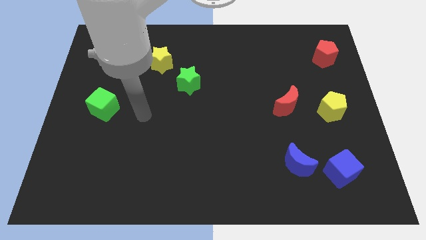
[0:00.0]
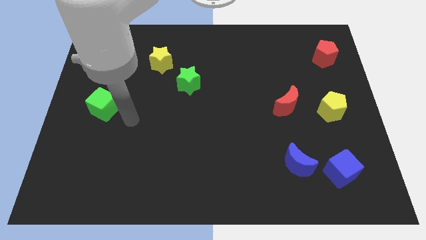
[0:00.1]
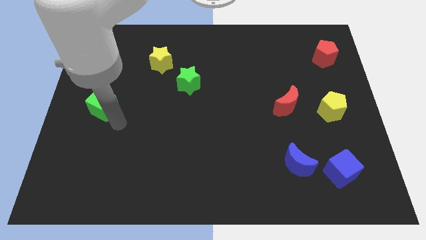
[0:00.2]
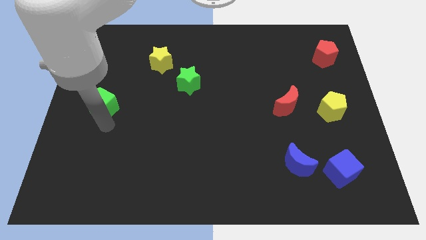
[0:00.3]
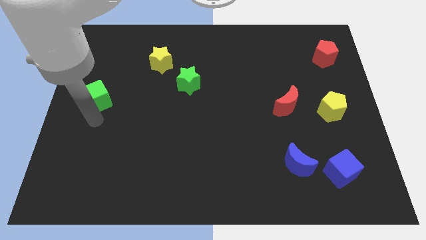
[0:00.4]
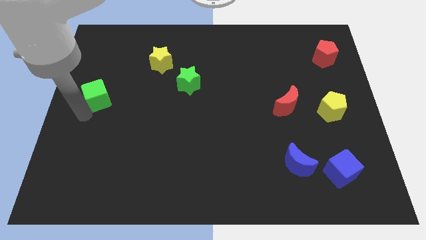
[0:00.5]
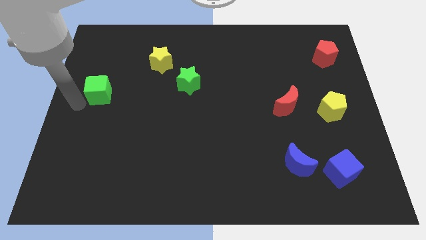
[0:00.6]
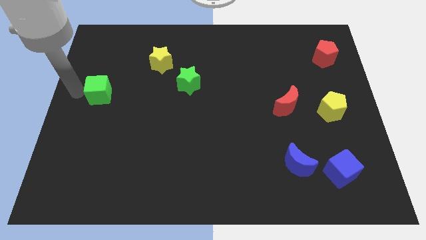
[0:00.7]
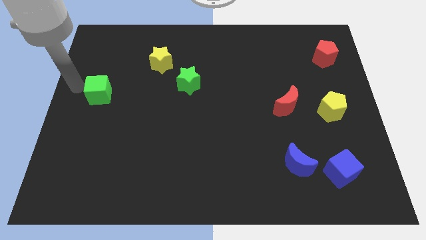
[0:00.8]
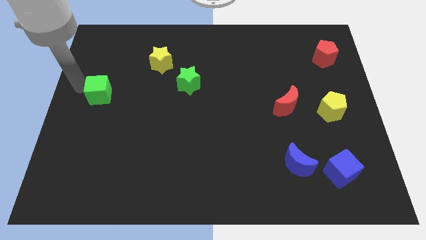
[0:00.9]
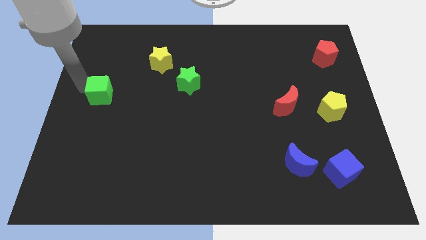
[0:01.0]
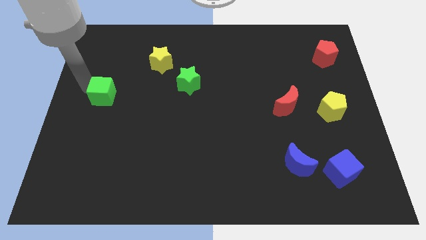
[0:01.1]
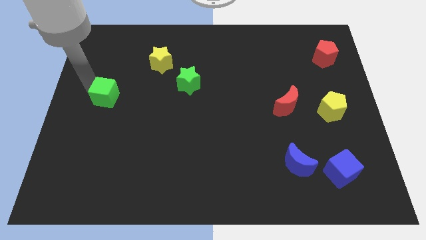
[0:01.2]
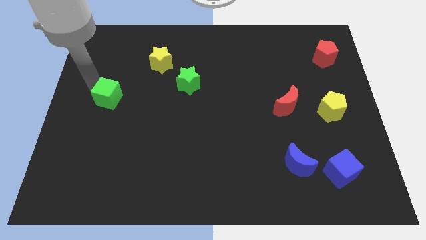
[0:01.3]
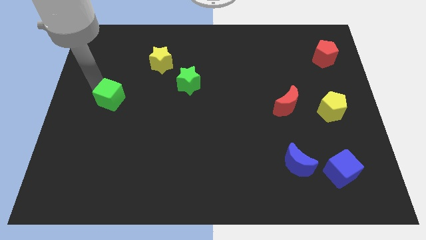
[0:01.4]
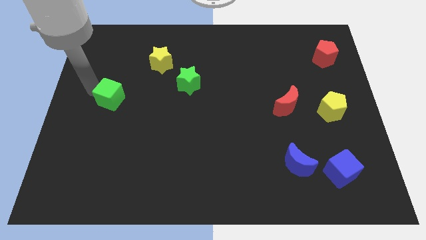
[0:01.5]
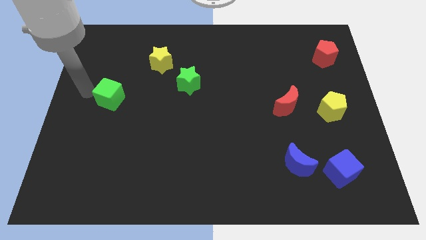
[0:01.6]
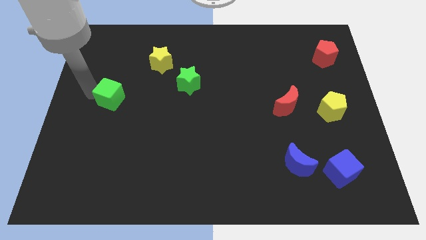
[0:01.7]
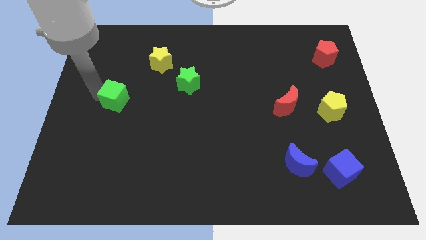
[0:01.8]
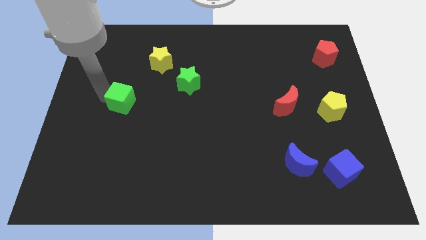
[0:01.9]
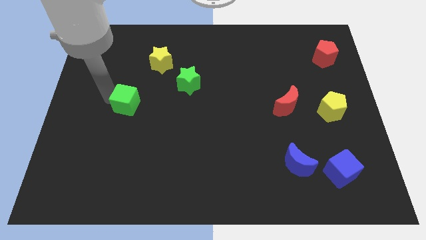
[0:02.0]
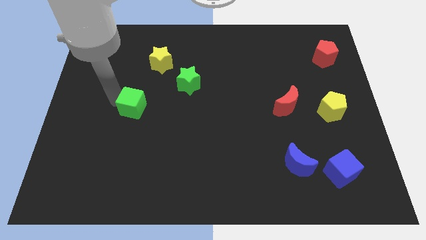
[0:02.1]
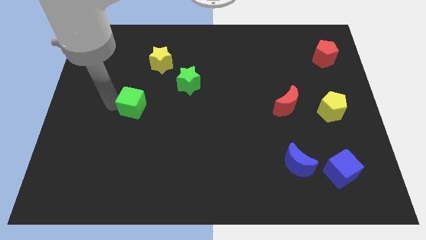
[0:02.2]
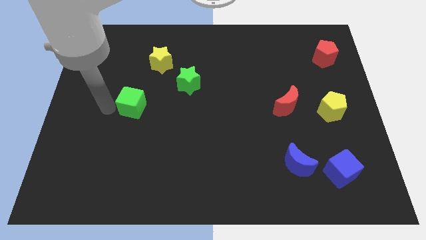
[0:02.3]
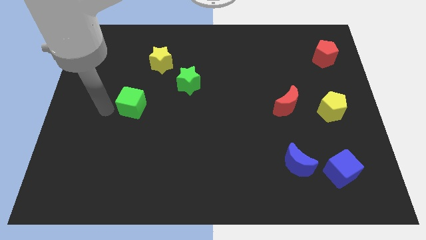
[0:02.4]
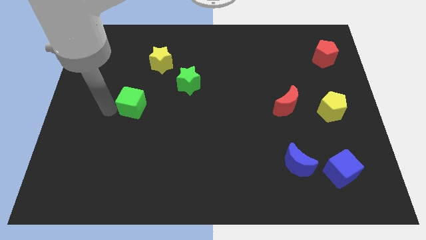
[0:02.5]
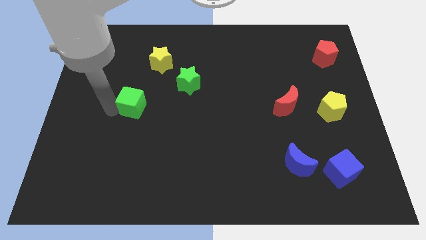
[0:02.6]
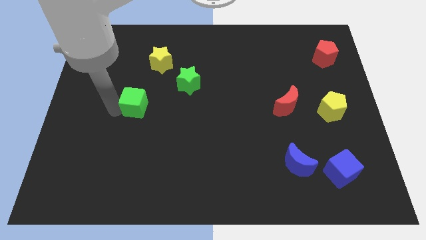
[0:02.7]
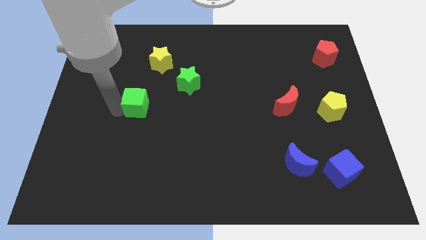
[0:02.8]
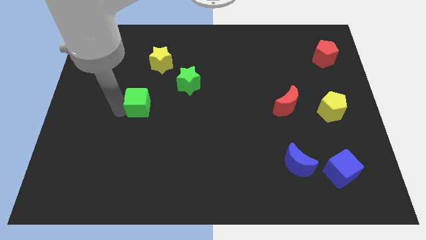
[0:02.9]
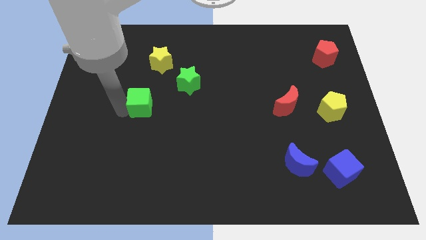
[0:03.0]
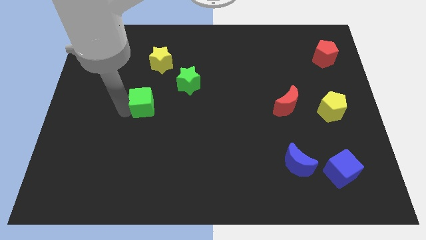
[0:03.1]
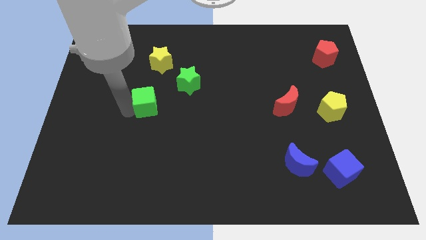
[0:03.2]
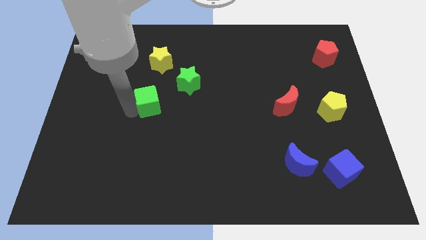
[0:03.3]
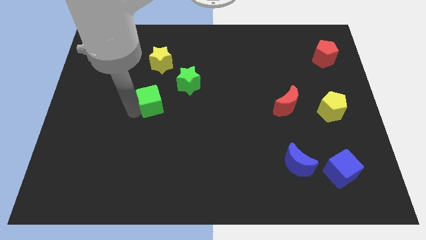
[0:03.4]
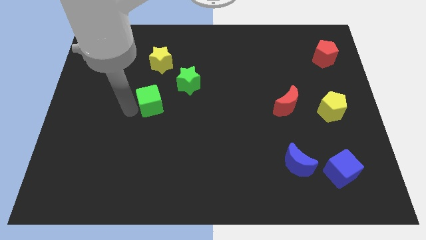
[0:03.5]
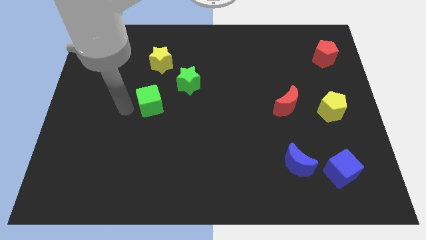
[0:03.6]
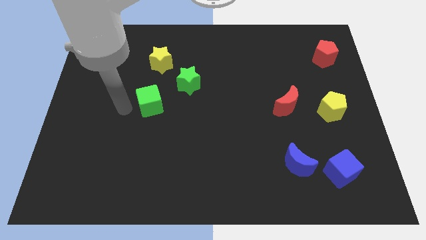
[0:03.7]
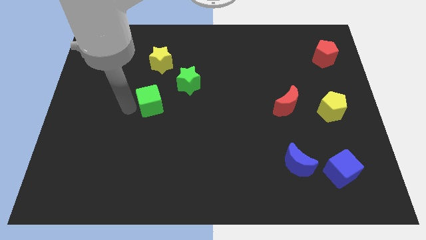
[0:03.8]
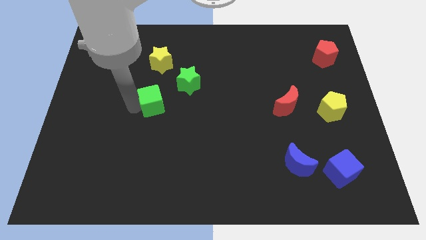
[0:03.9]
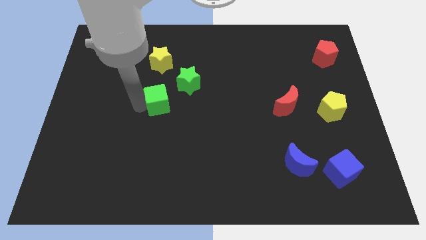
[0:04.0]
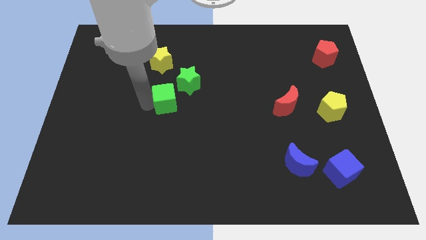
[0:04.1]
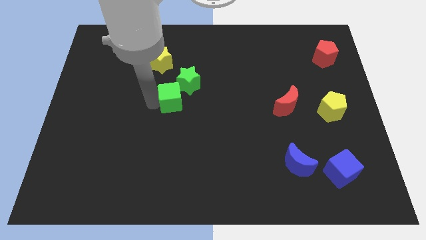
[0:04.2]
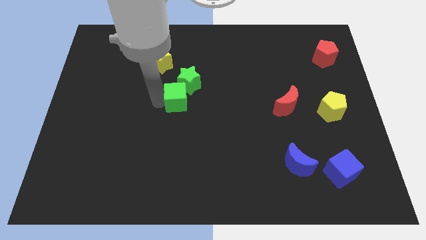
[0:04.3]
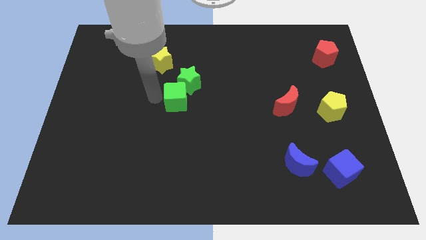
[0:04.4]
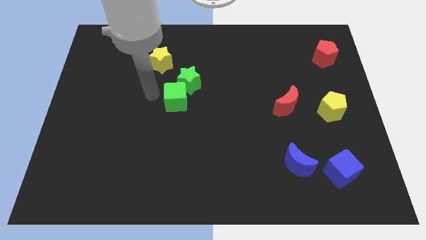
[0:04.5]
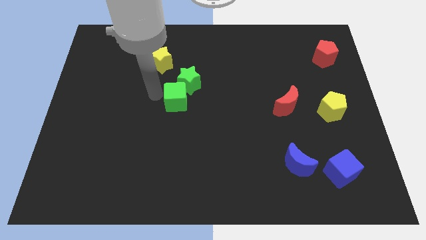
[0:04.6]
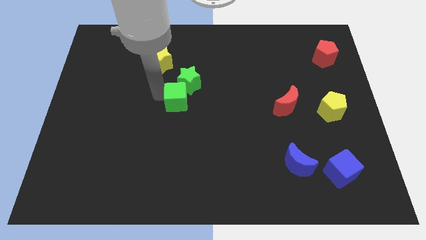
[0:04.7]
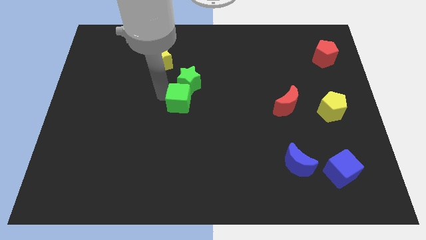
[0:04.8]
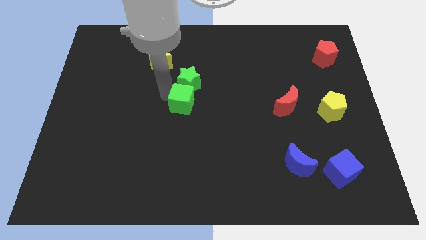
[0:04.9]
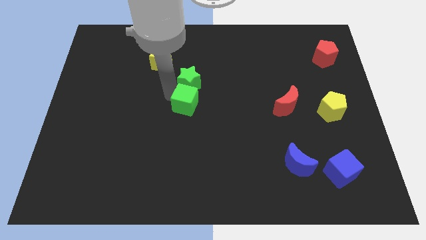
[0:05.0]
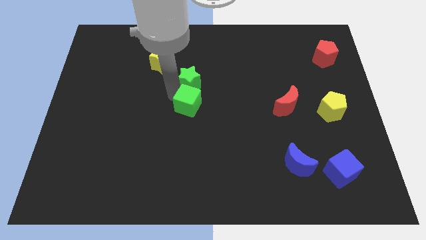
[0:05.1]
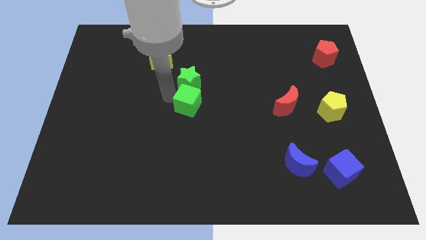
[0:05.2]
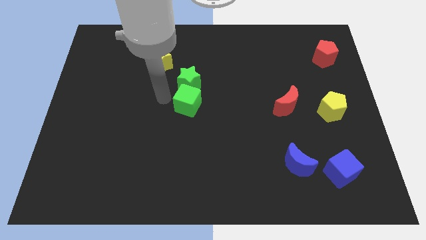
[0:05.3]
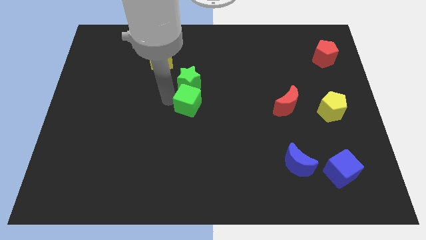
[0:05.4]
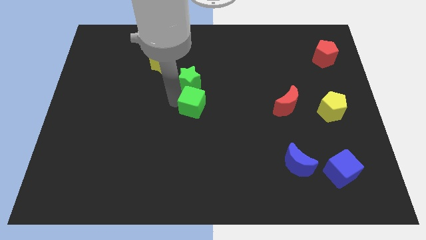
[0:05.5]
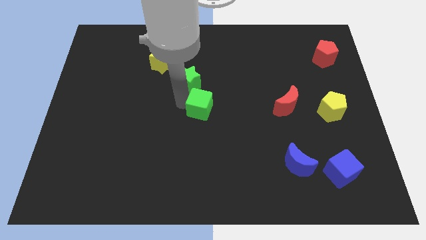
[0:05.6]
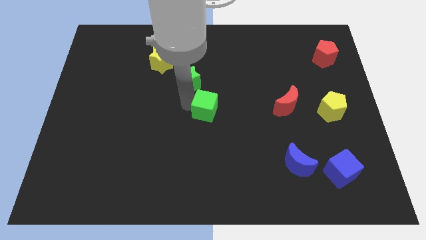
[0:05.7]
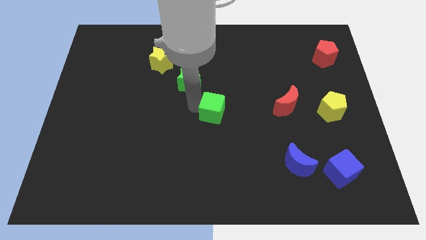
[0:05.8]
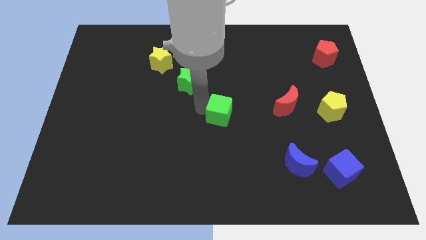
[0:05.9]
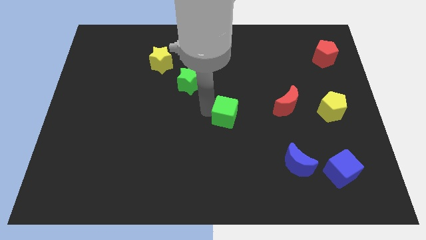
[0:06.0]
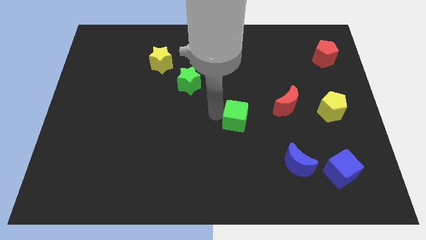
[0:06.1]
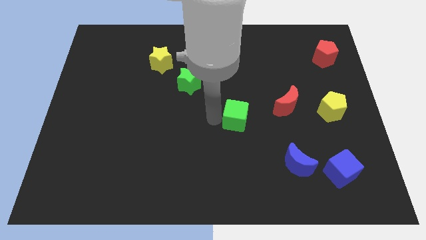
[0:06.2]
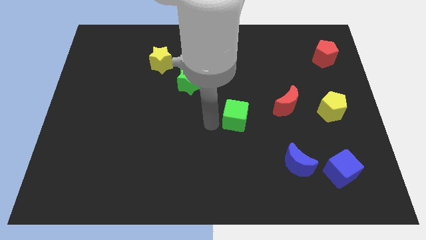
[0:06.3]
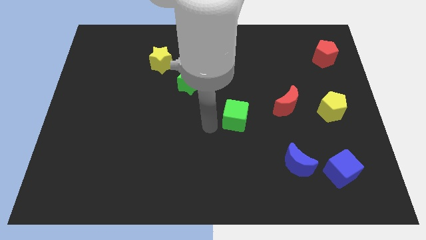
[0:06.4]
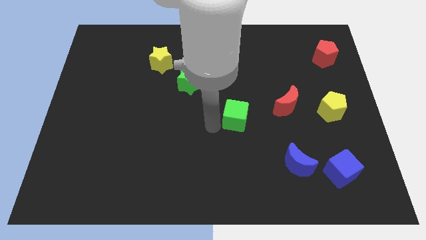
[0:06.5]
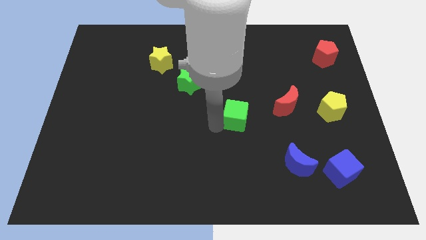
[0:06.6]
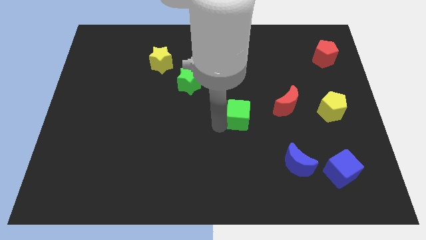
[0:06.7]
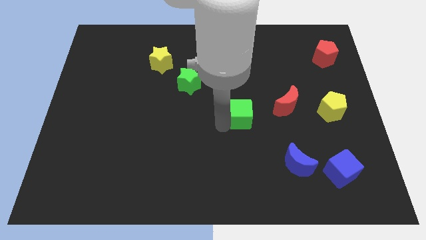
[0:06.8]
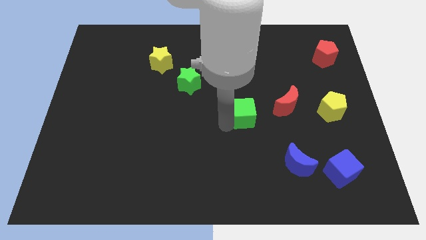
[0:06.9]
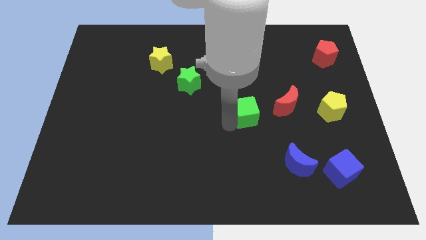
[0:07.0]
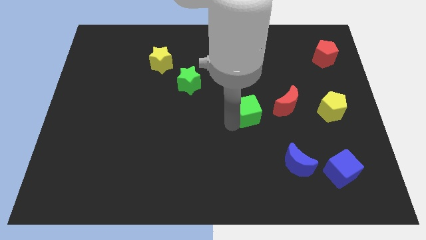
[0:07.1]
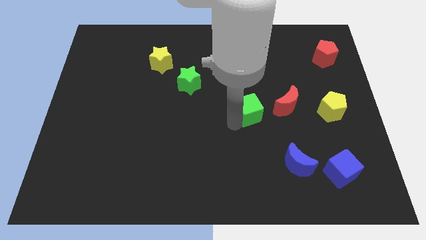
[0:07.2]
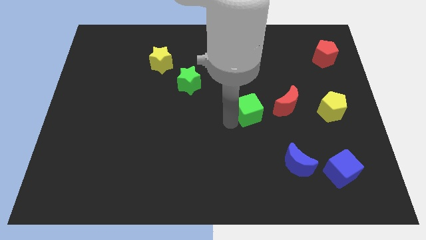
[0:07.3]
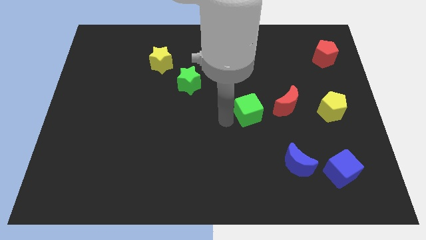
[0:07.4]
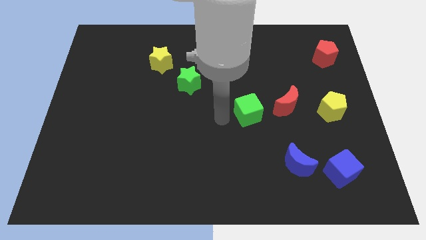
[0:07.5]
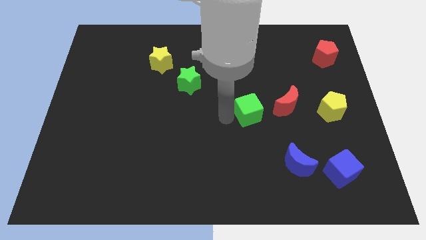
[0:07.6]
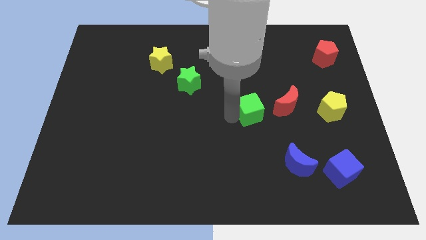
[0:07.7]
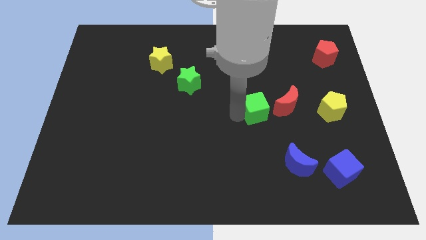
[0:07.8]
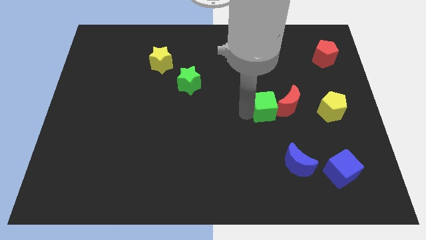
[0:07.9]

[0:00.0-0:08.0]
move the green cube next to the red moon
